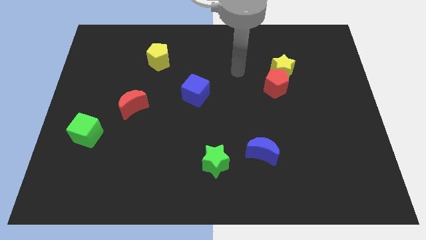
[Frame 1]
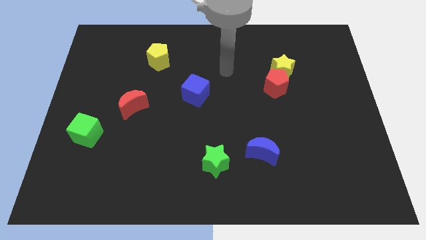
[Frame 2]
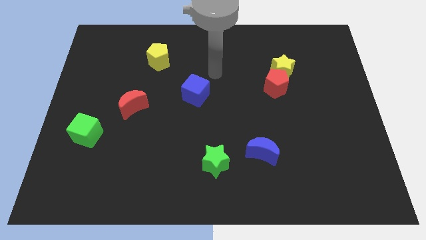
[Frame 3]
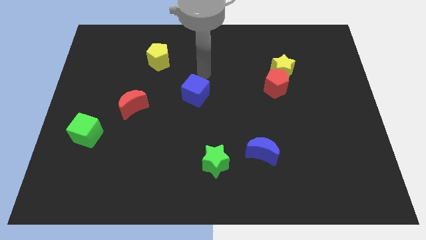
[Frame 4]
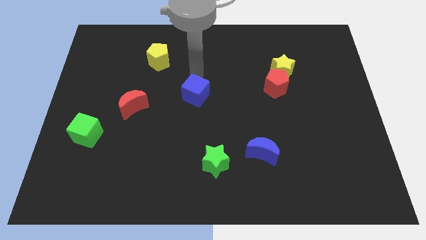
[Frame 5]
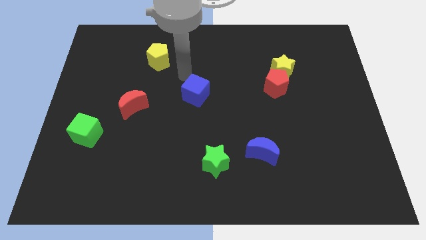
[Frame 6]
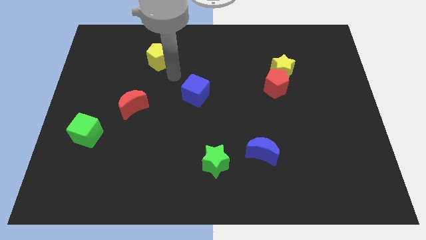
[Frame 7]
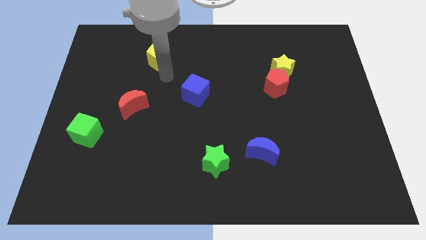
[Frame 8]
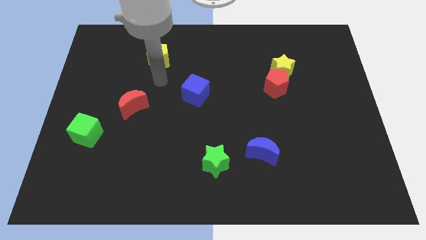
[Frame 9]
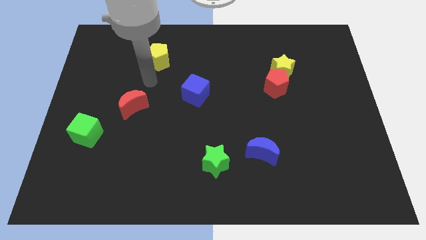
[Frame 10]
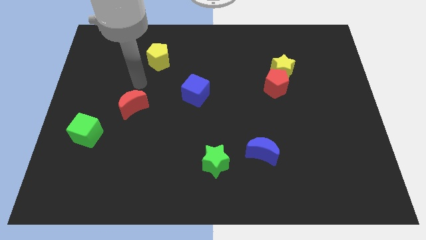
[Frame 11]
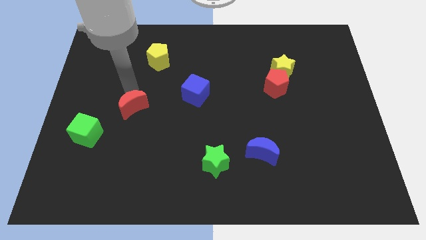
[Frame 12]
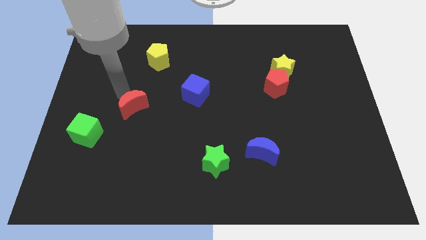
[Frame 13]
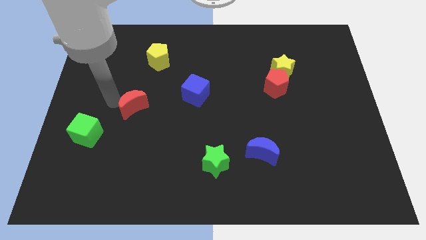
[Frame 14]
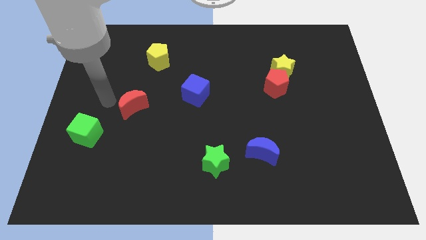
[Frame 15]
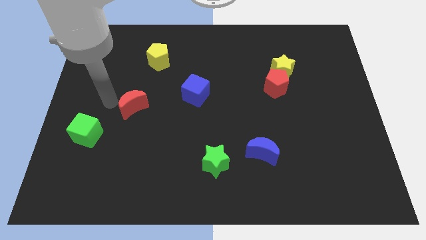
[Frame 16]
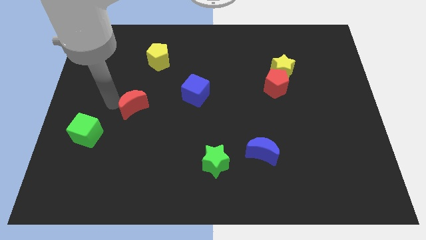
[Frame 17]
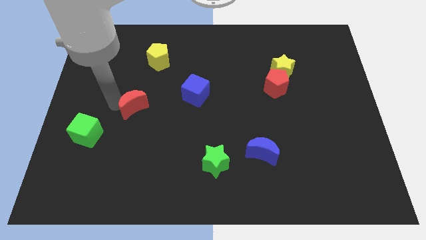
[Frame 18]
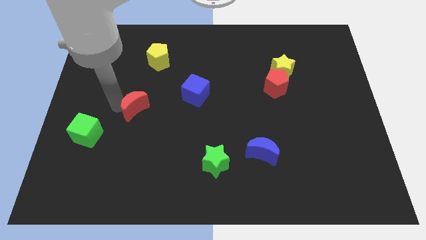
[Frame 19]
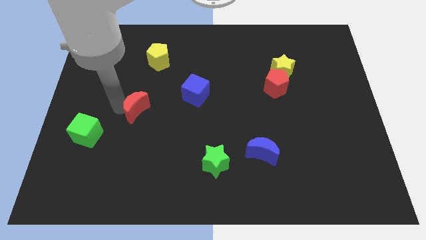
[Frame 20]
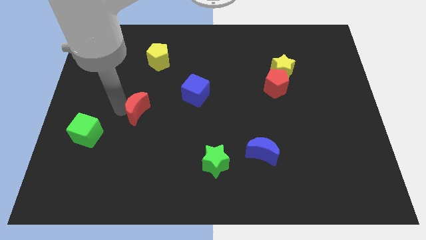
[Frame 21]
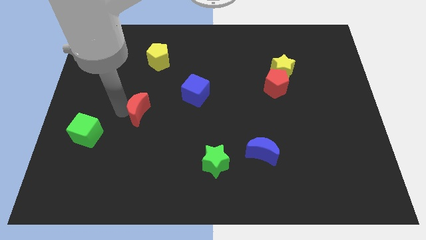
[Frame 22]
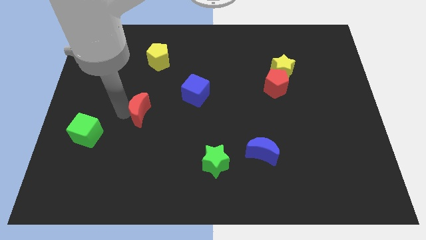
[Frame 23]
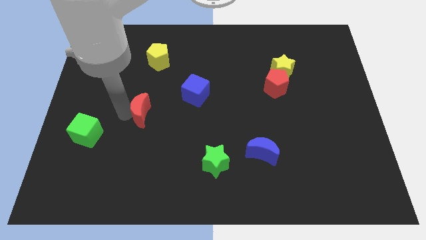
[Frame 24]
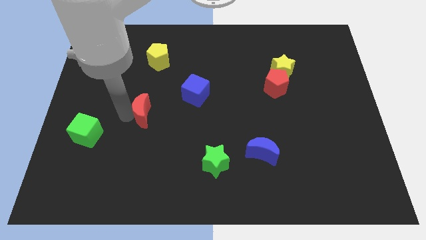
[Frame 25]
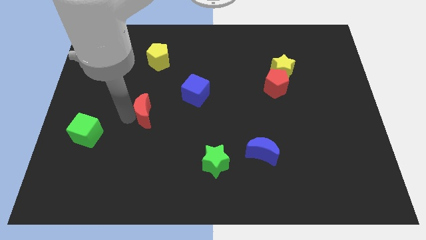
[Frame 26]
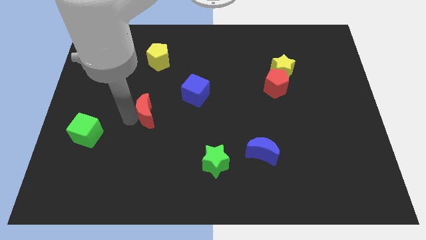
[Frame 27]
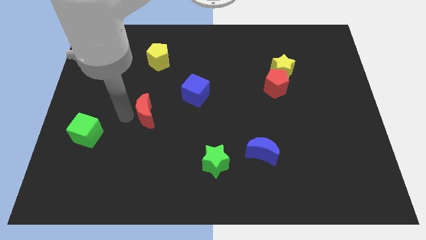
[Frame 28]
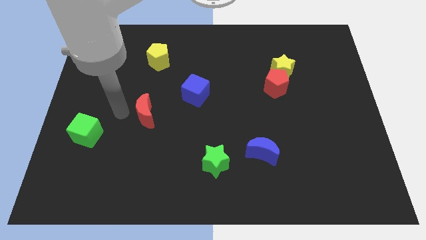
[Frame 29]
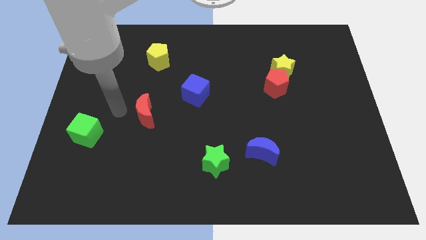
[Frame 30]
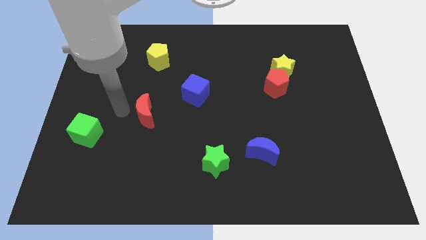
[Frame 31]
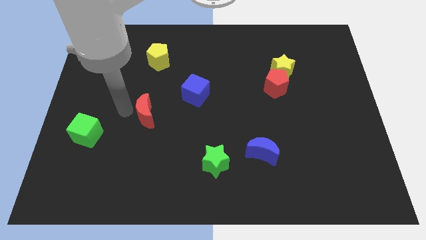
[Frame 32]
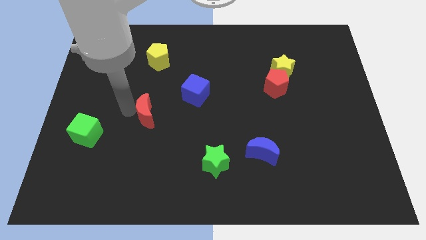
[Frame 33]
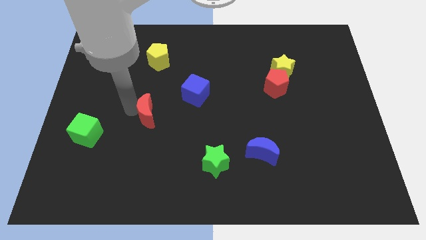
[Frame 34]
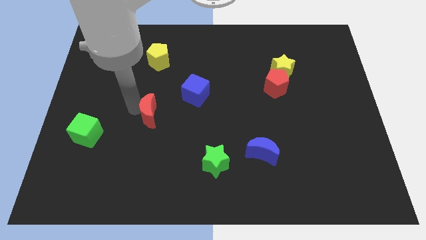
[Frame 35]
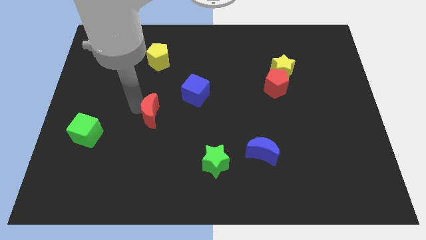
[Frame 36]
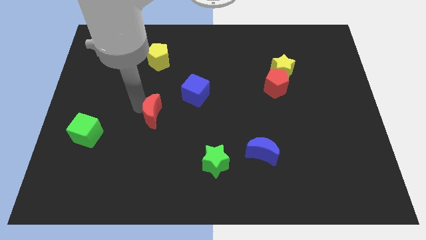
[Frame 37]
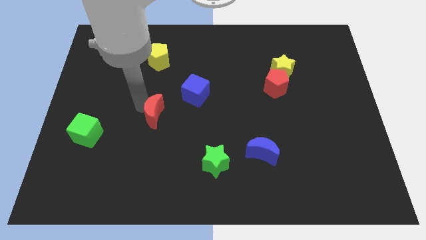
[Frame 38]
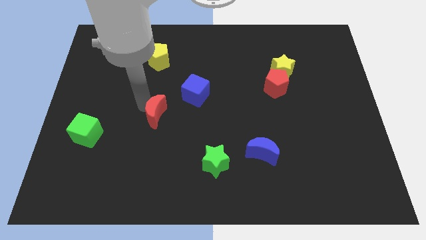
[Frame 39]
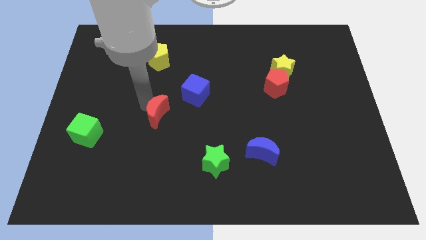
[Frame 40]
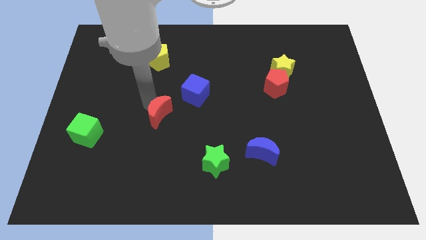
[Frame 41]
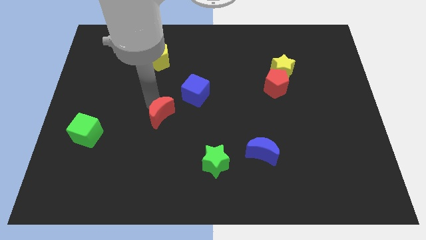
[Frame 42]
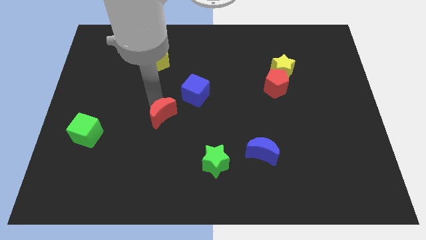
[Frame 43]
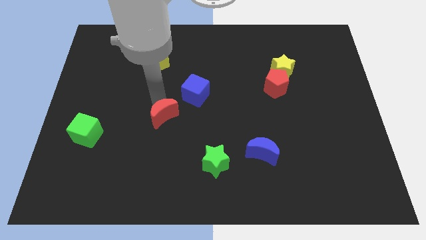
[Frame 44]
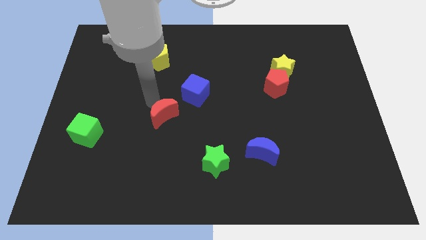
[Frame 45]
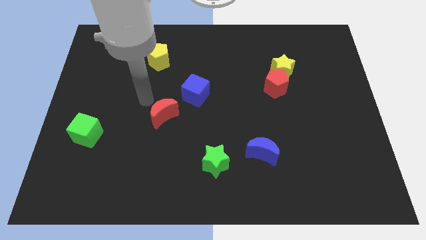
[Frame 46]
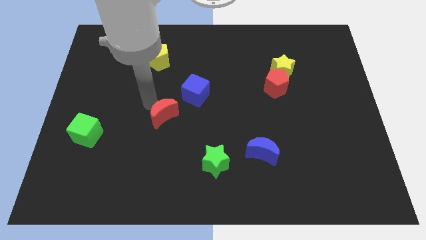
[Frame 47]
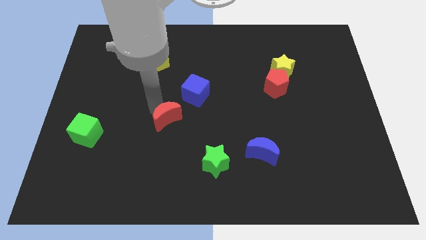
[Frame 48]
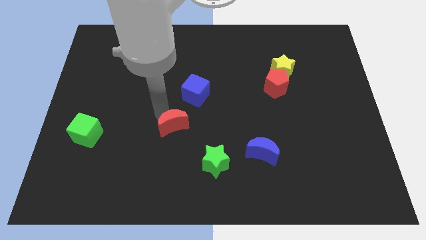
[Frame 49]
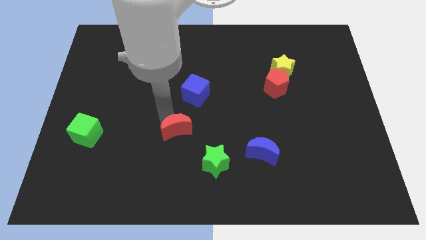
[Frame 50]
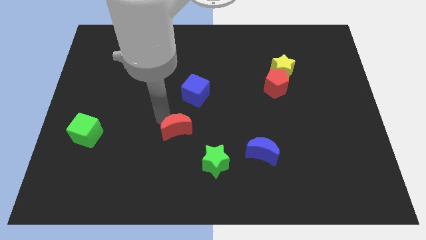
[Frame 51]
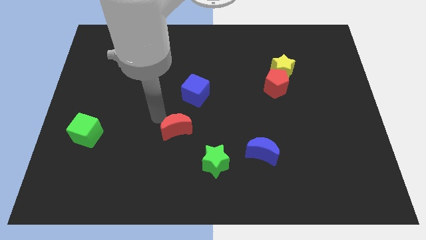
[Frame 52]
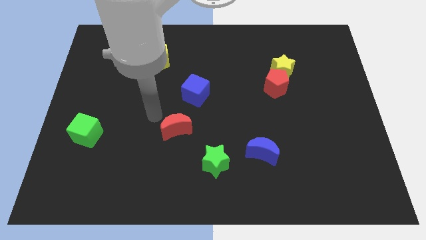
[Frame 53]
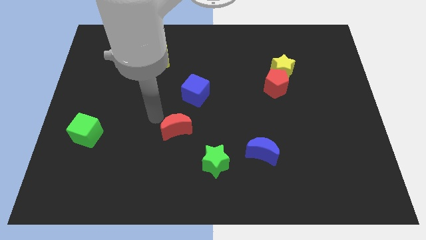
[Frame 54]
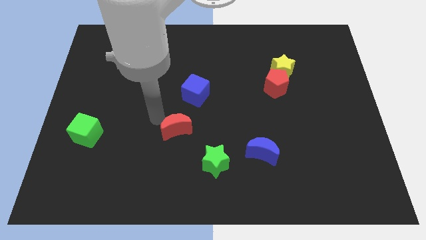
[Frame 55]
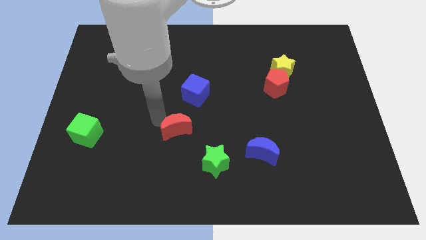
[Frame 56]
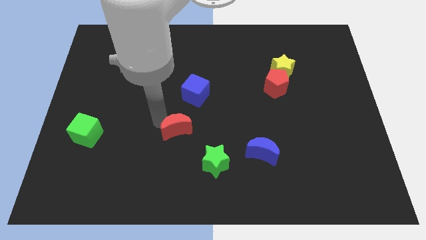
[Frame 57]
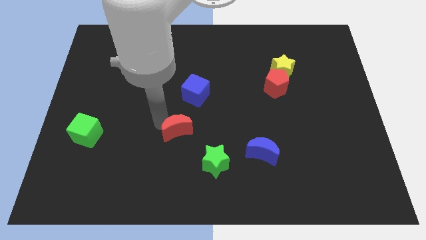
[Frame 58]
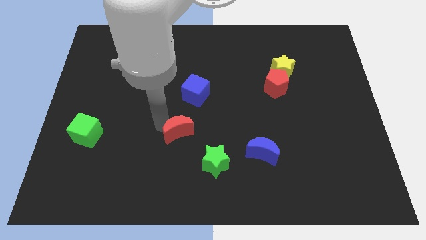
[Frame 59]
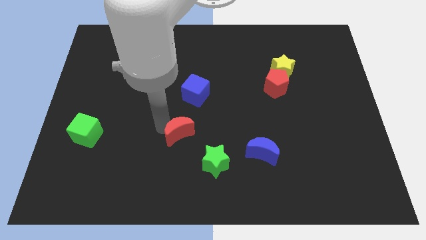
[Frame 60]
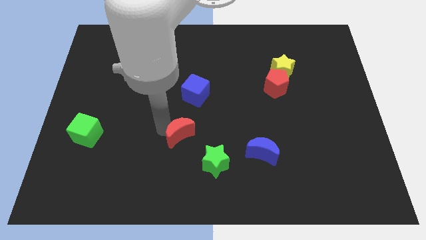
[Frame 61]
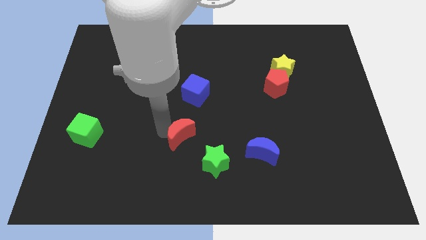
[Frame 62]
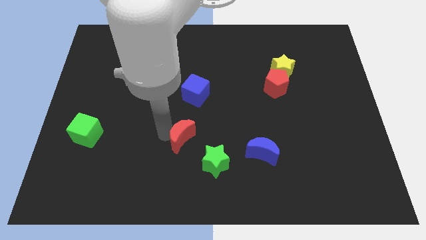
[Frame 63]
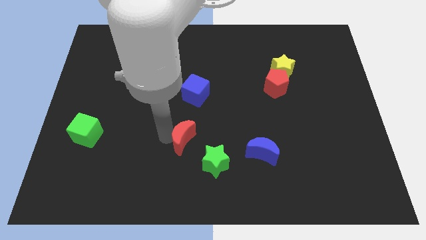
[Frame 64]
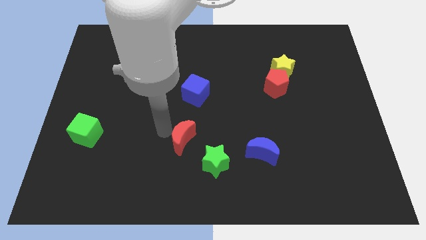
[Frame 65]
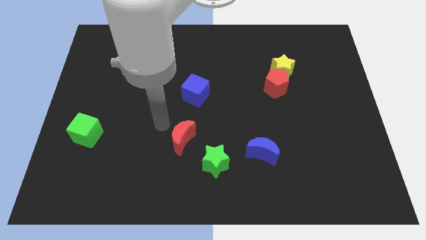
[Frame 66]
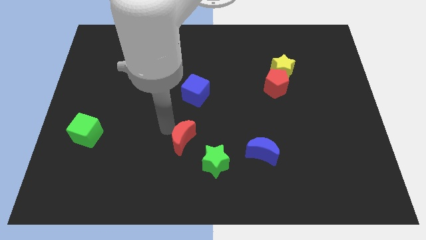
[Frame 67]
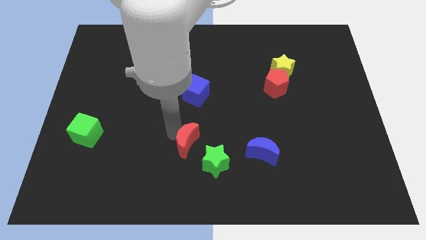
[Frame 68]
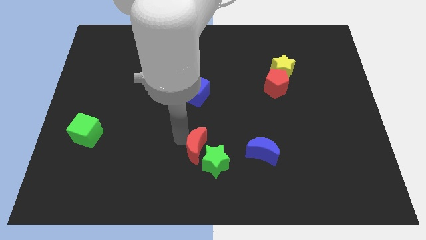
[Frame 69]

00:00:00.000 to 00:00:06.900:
put the red moon towards the green star

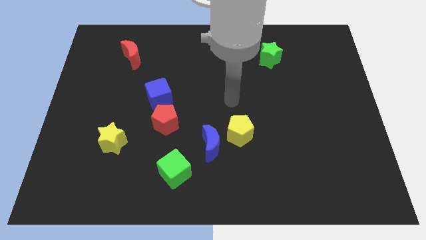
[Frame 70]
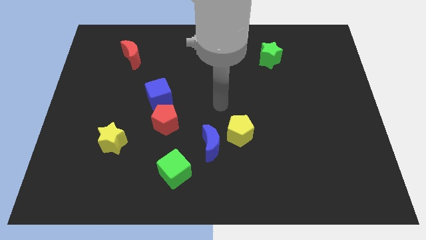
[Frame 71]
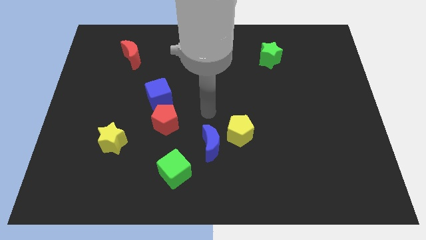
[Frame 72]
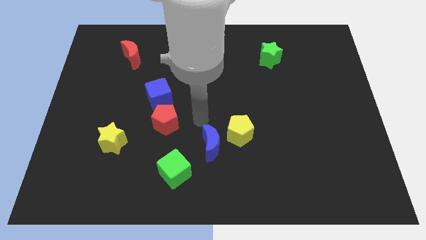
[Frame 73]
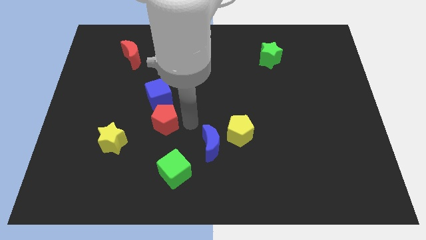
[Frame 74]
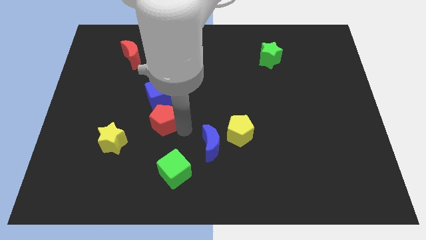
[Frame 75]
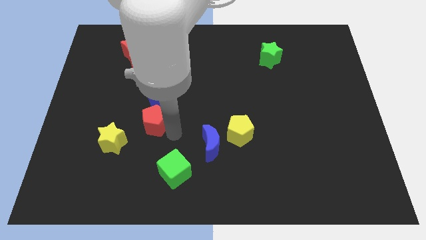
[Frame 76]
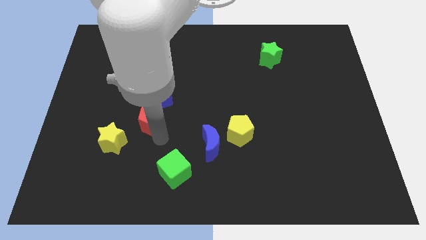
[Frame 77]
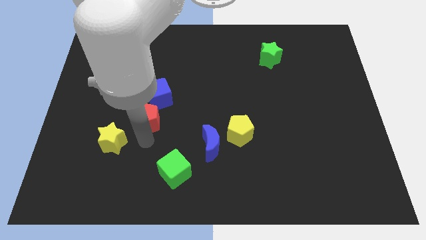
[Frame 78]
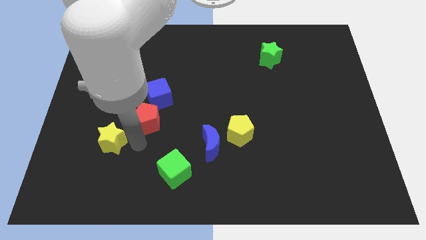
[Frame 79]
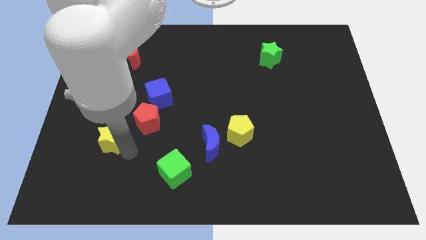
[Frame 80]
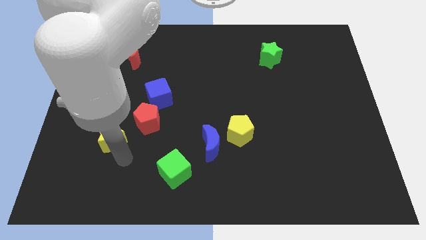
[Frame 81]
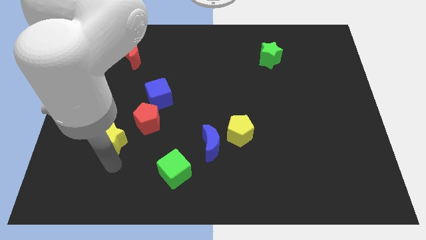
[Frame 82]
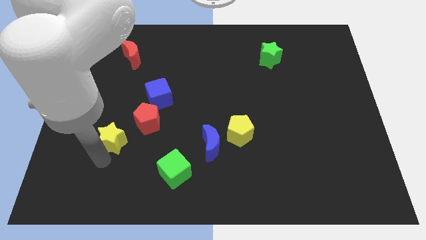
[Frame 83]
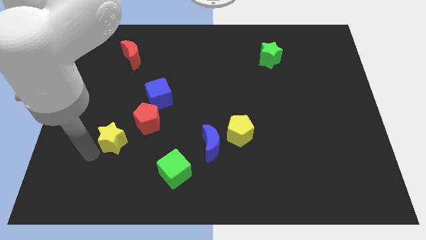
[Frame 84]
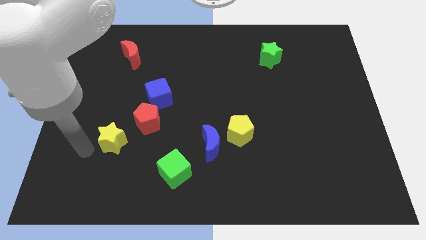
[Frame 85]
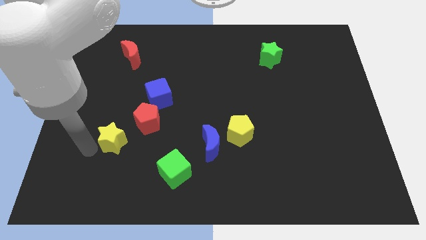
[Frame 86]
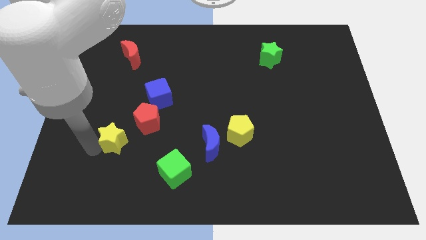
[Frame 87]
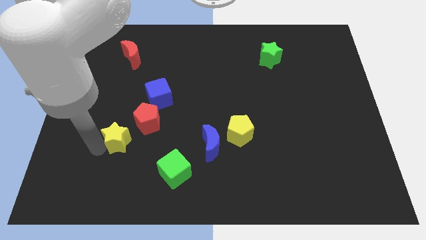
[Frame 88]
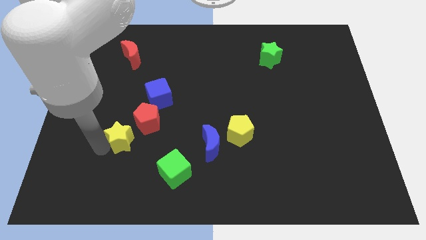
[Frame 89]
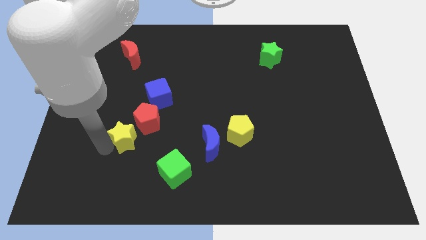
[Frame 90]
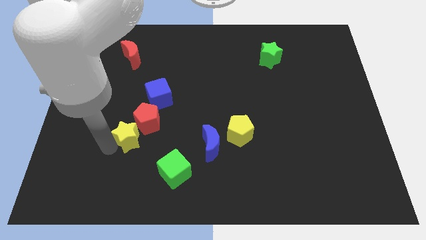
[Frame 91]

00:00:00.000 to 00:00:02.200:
push the yellow star next to the red pentagon
